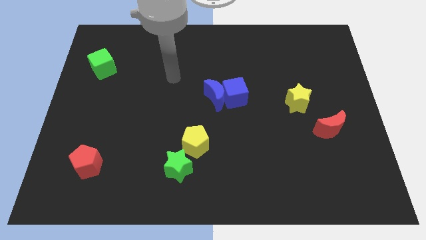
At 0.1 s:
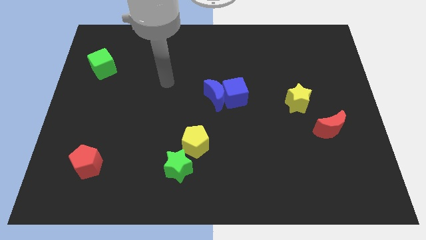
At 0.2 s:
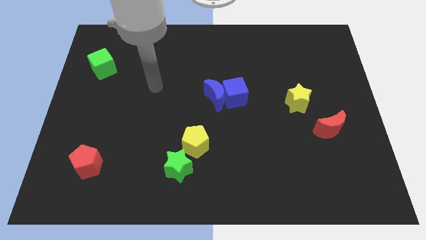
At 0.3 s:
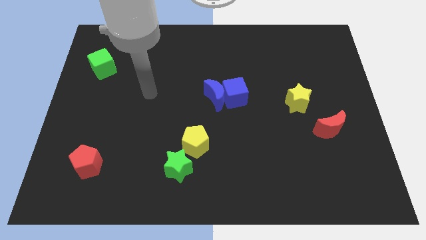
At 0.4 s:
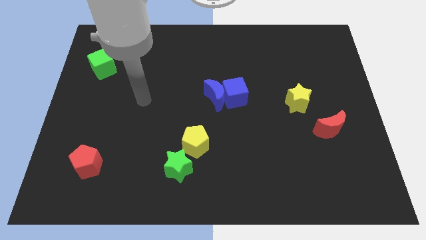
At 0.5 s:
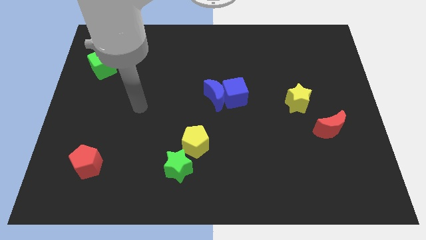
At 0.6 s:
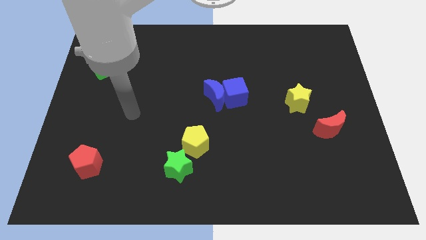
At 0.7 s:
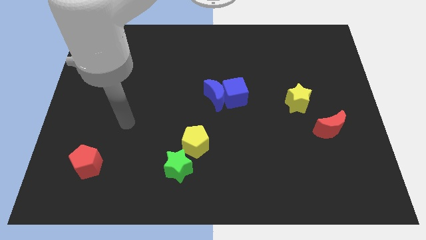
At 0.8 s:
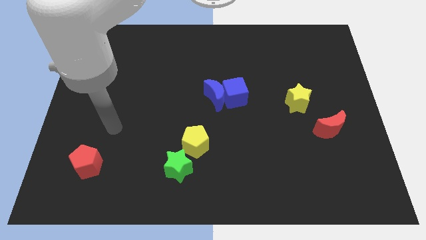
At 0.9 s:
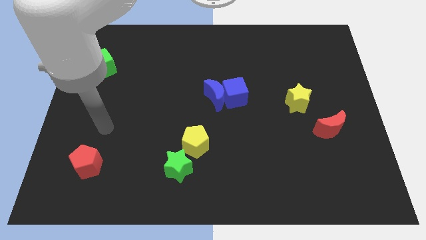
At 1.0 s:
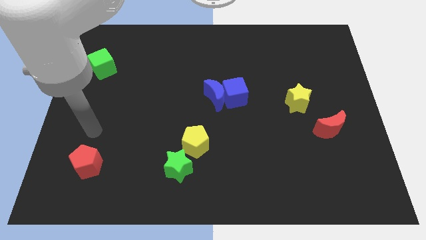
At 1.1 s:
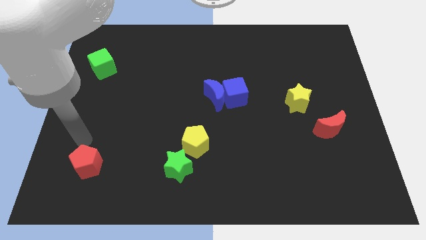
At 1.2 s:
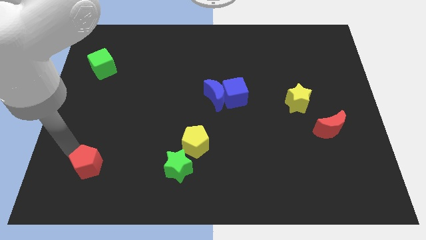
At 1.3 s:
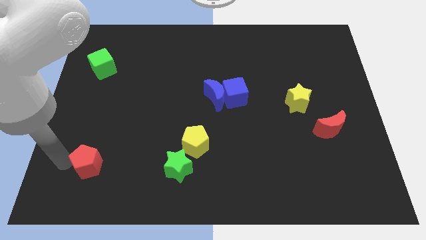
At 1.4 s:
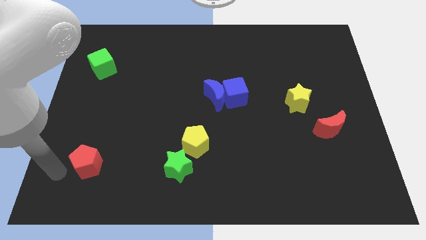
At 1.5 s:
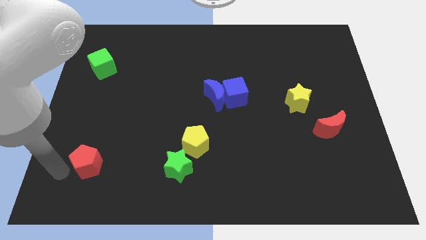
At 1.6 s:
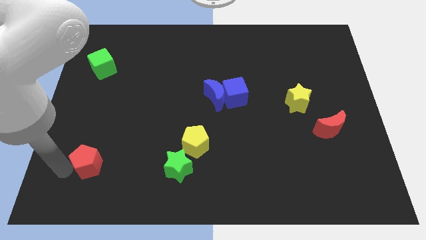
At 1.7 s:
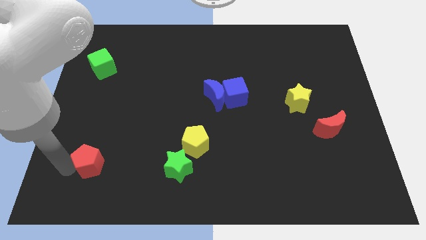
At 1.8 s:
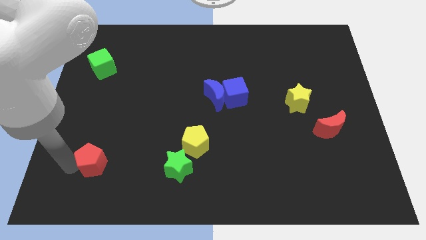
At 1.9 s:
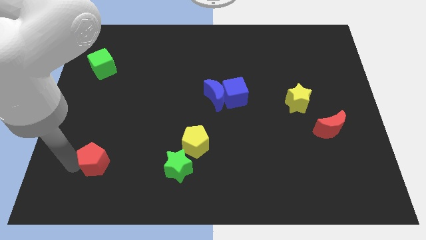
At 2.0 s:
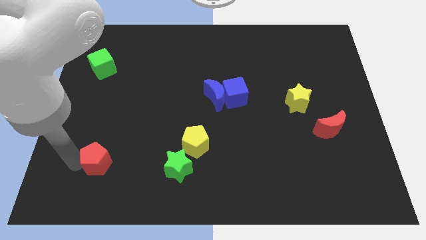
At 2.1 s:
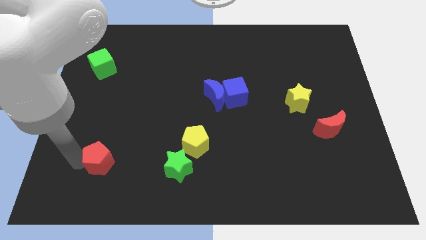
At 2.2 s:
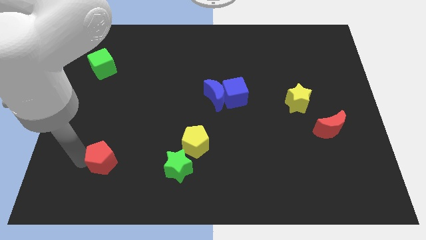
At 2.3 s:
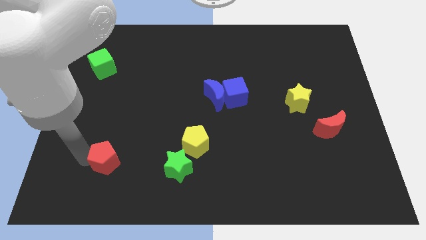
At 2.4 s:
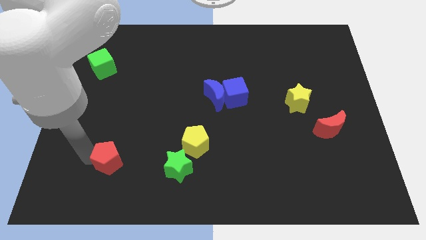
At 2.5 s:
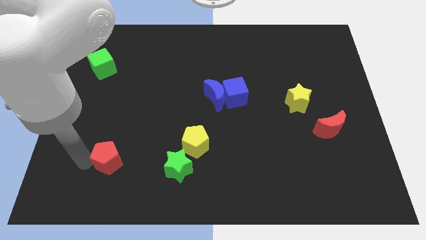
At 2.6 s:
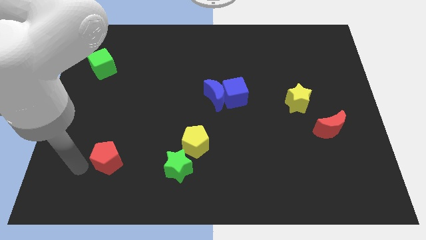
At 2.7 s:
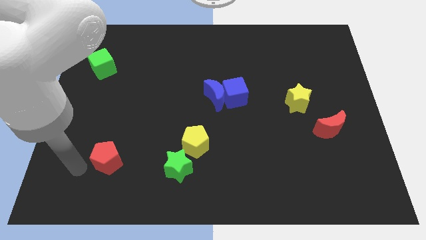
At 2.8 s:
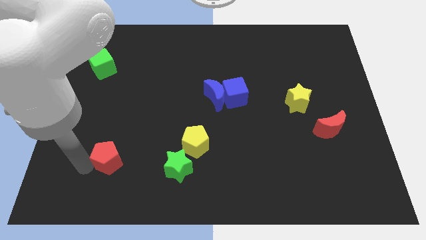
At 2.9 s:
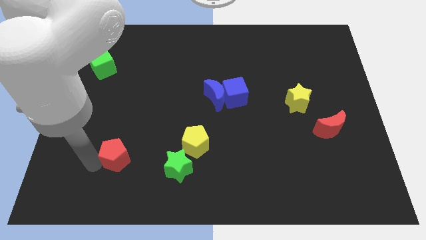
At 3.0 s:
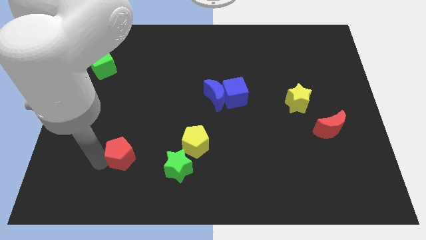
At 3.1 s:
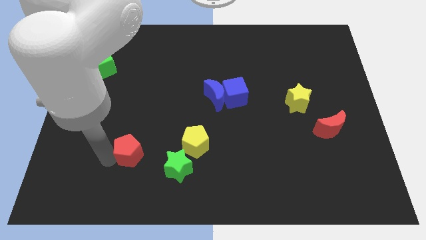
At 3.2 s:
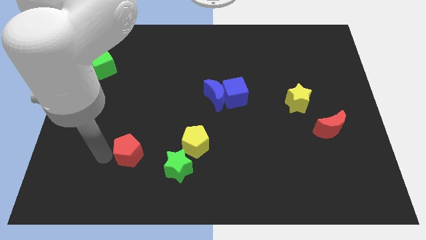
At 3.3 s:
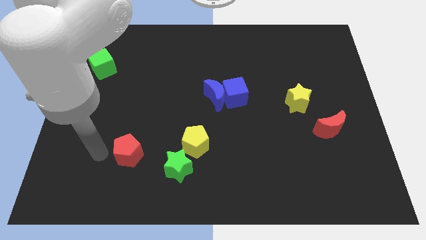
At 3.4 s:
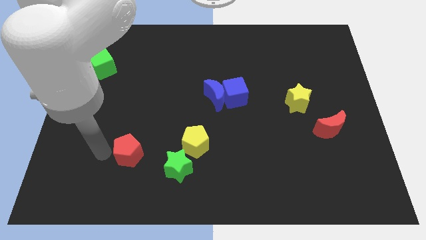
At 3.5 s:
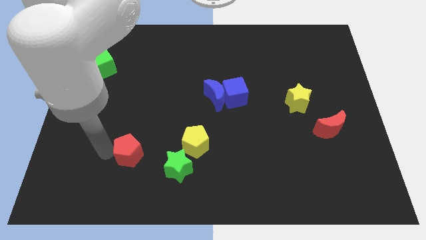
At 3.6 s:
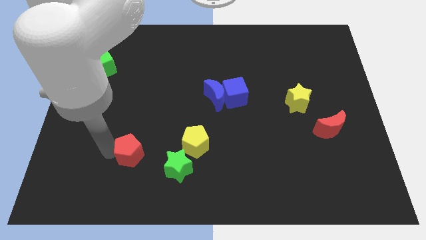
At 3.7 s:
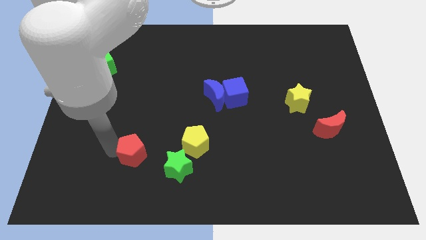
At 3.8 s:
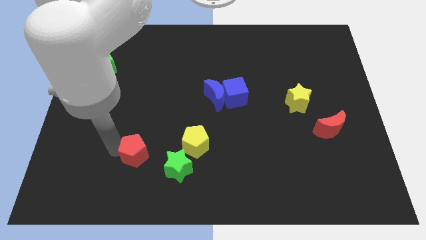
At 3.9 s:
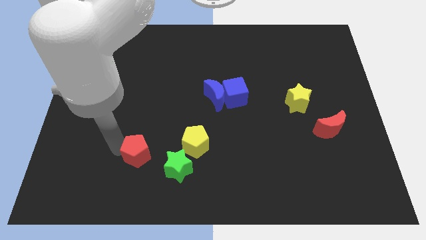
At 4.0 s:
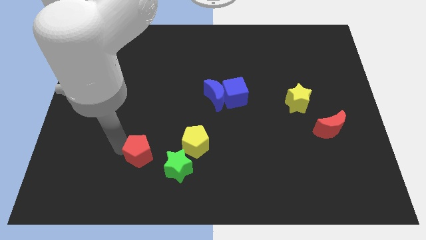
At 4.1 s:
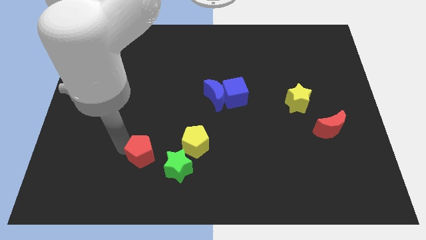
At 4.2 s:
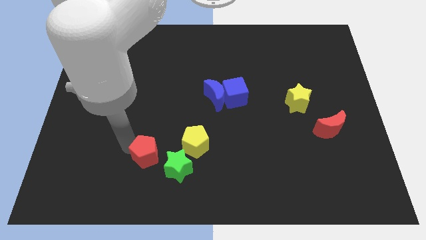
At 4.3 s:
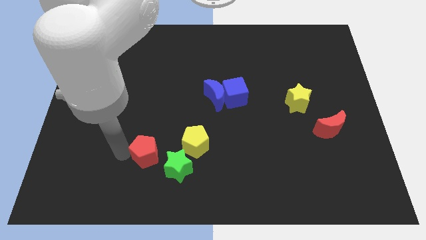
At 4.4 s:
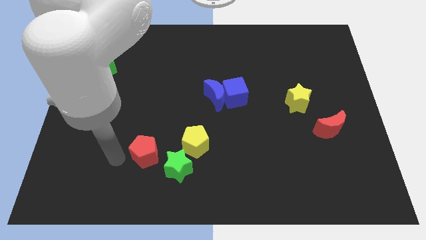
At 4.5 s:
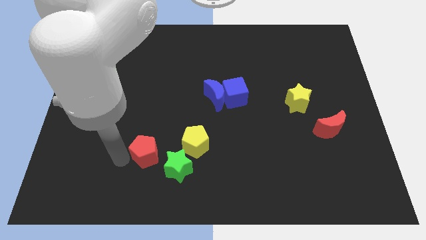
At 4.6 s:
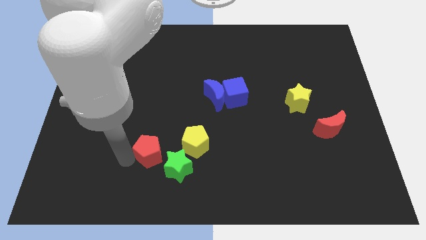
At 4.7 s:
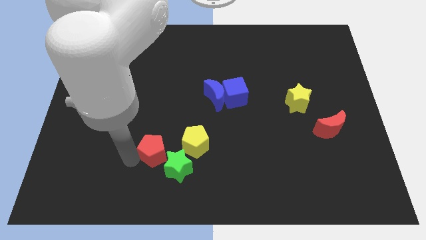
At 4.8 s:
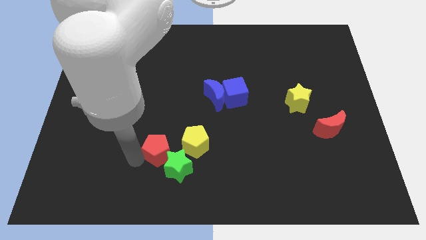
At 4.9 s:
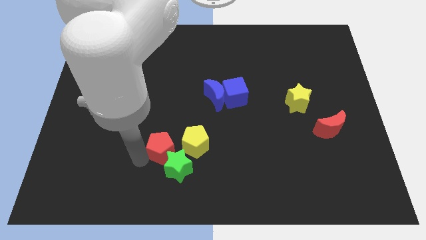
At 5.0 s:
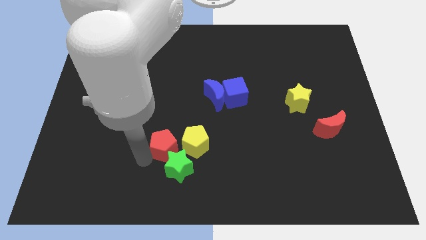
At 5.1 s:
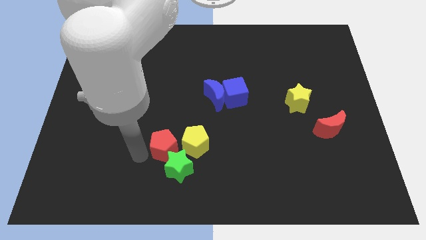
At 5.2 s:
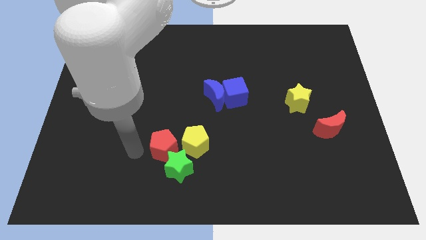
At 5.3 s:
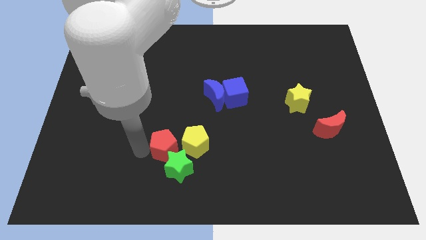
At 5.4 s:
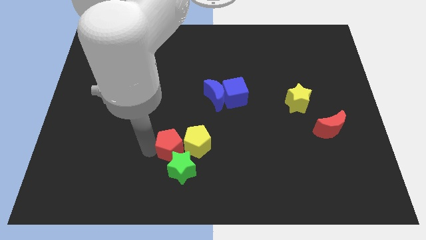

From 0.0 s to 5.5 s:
put the red pentagon close to the yellow pentagon

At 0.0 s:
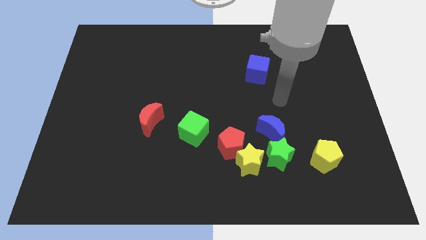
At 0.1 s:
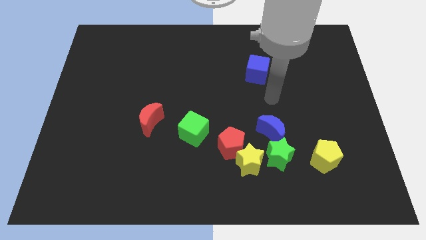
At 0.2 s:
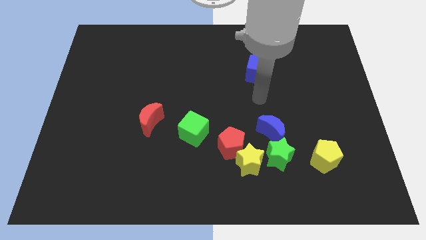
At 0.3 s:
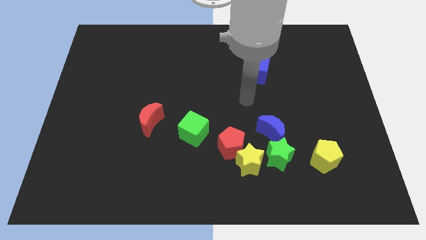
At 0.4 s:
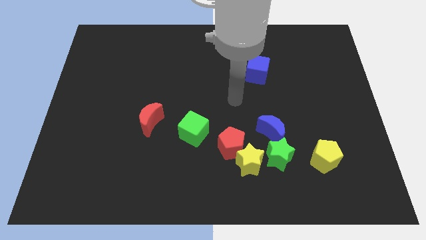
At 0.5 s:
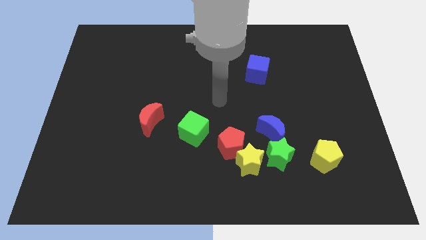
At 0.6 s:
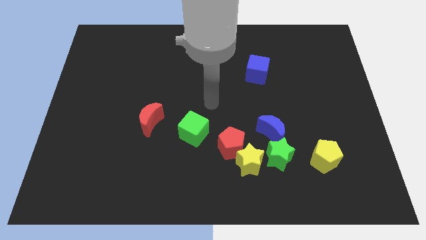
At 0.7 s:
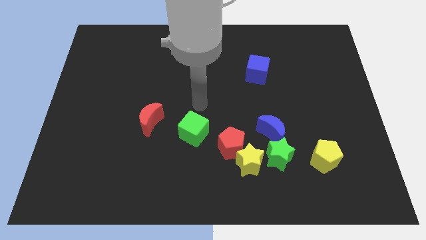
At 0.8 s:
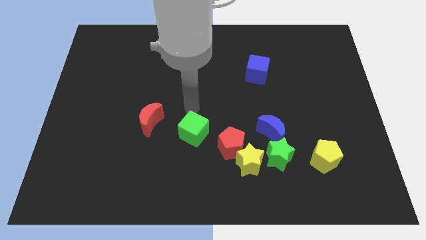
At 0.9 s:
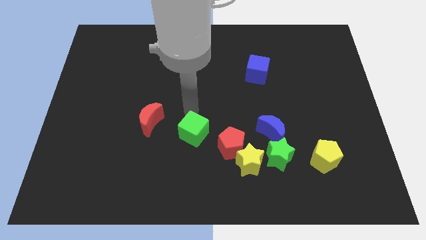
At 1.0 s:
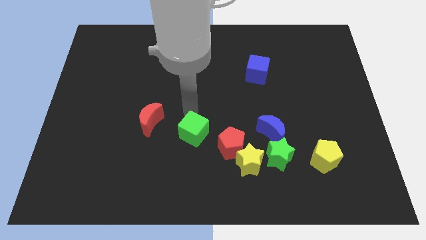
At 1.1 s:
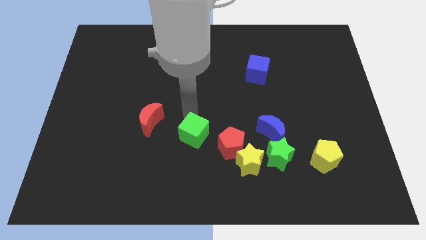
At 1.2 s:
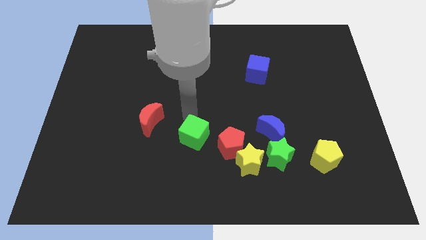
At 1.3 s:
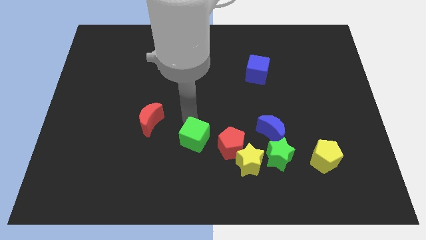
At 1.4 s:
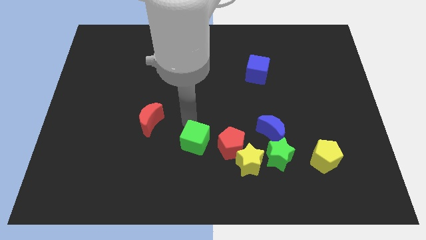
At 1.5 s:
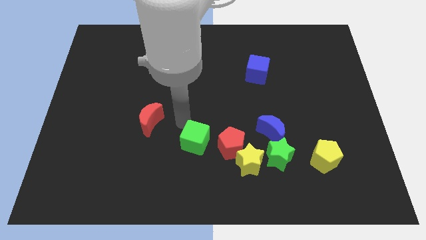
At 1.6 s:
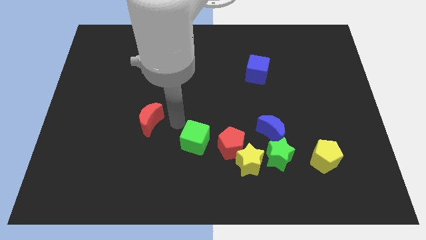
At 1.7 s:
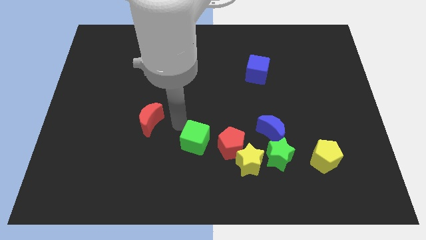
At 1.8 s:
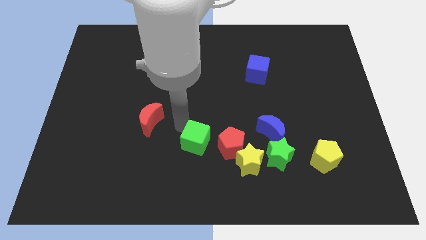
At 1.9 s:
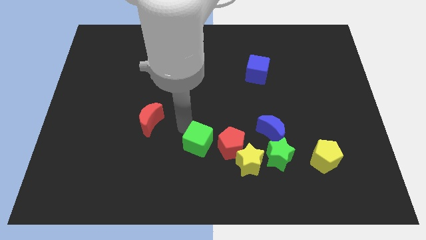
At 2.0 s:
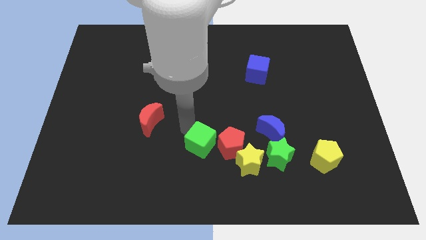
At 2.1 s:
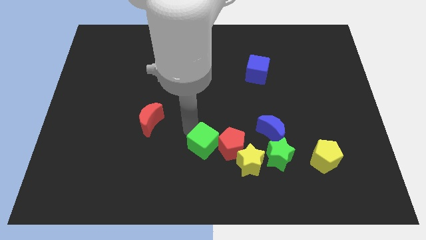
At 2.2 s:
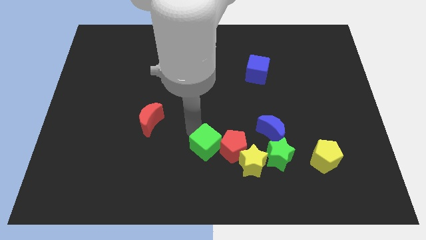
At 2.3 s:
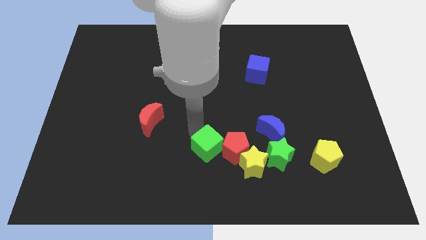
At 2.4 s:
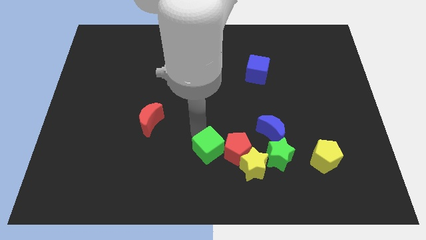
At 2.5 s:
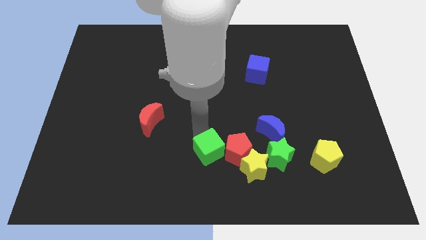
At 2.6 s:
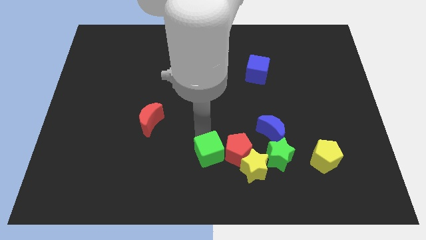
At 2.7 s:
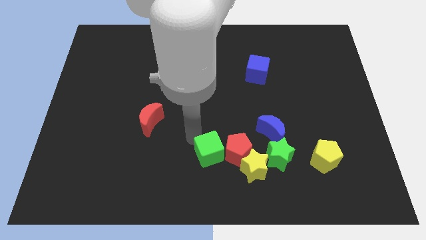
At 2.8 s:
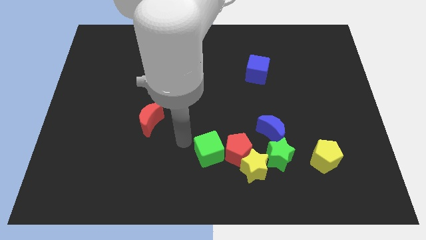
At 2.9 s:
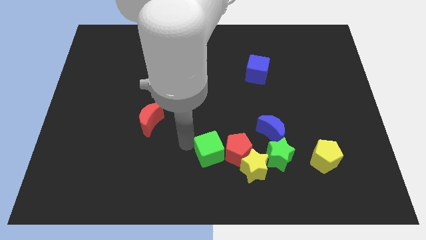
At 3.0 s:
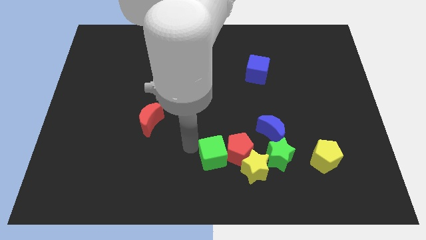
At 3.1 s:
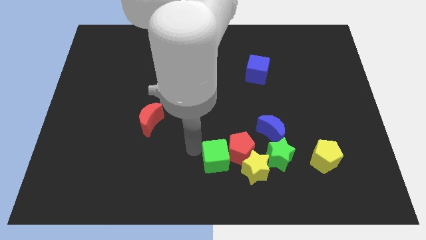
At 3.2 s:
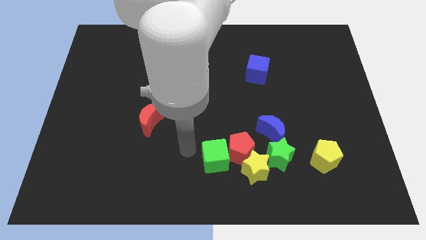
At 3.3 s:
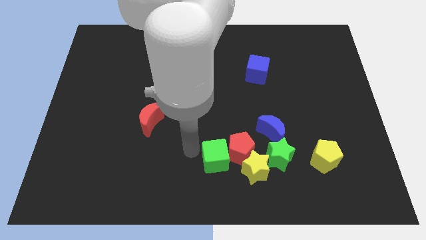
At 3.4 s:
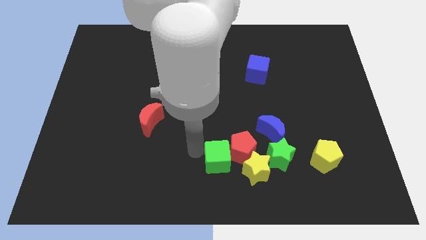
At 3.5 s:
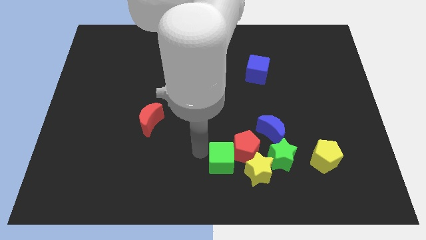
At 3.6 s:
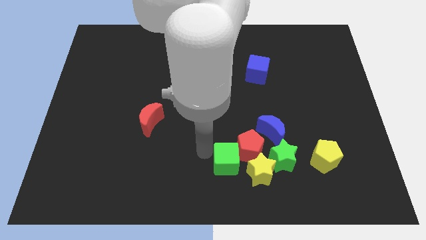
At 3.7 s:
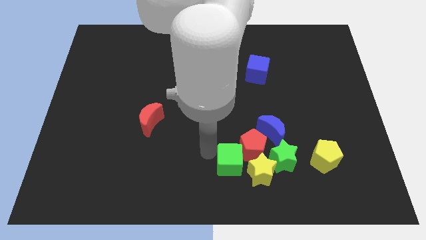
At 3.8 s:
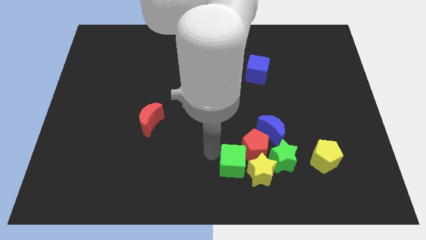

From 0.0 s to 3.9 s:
push the green cube next to the yellow star
